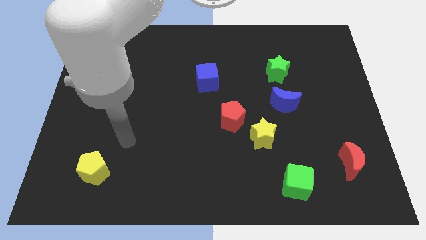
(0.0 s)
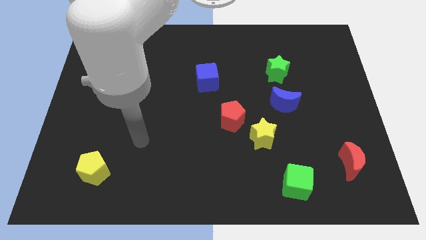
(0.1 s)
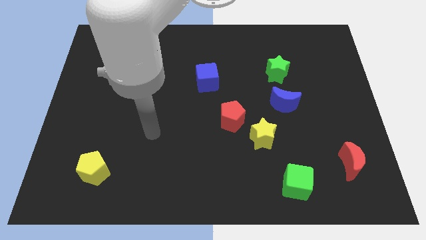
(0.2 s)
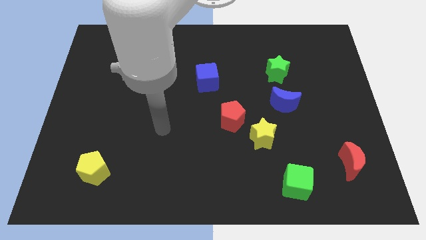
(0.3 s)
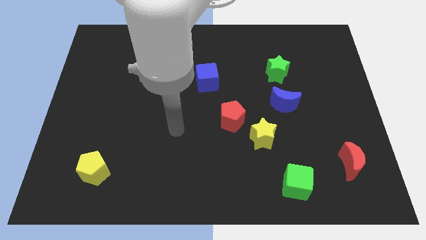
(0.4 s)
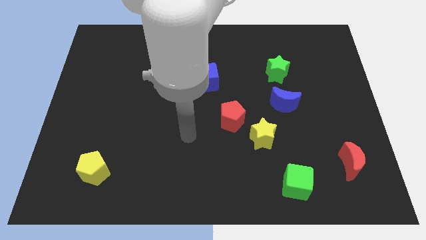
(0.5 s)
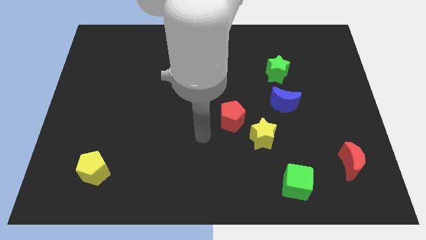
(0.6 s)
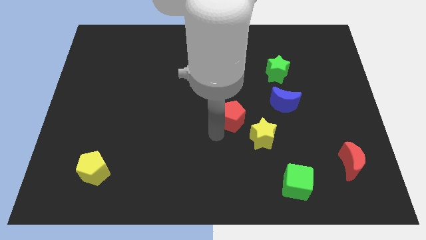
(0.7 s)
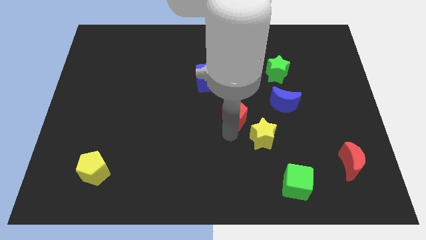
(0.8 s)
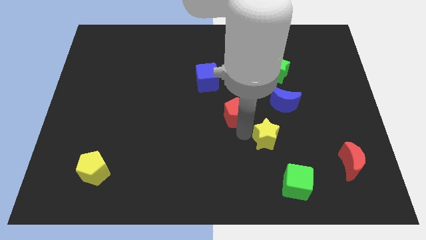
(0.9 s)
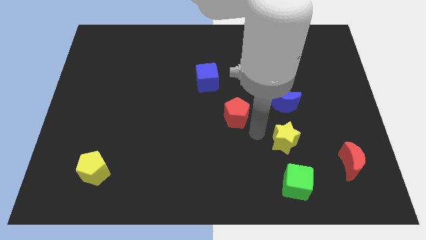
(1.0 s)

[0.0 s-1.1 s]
pull the red pentagon apart from the yellow star

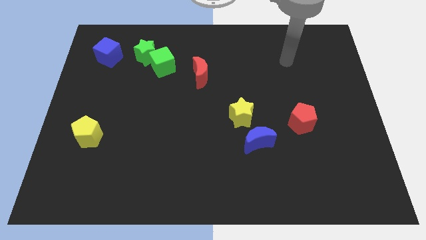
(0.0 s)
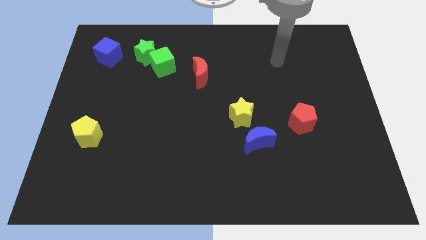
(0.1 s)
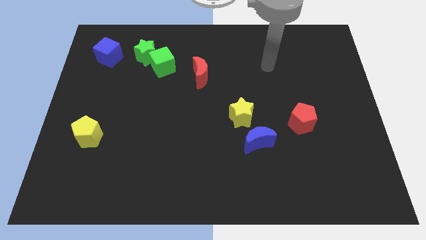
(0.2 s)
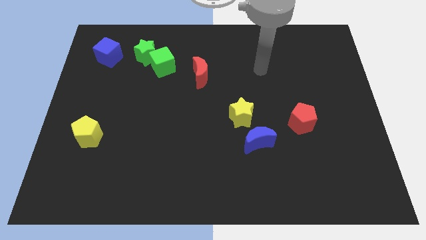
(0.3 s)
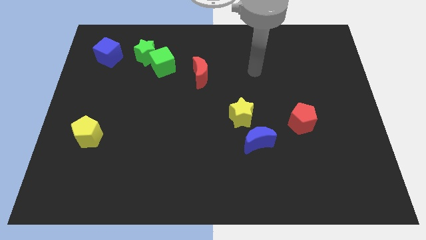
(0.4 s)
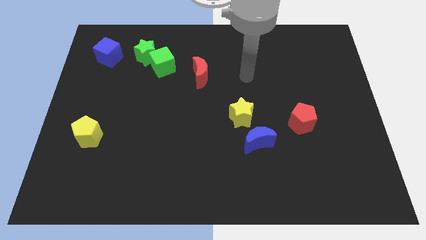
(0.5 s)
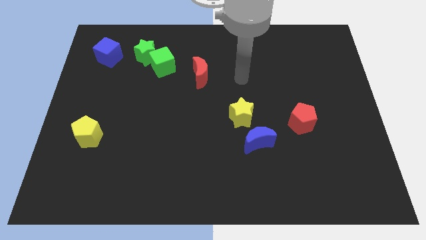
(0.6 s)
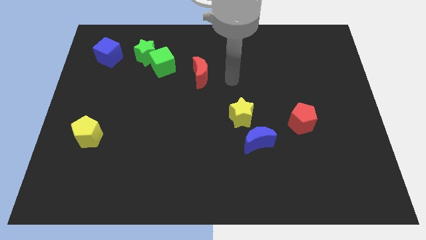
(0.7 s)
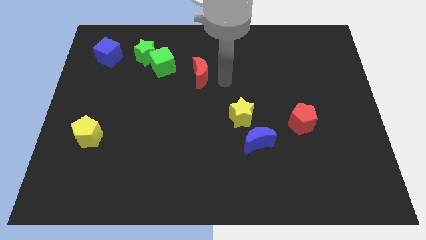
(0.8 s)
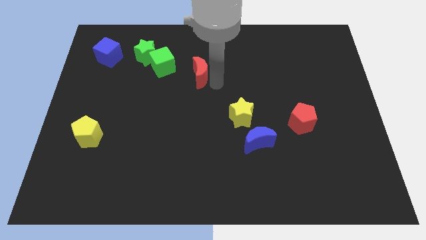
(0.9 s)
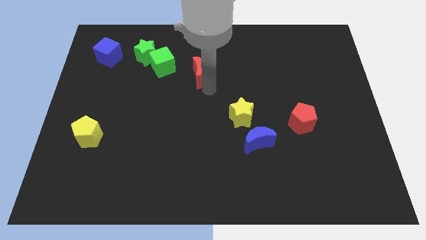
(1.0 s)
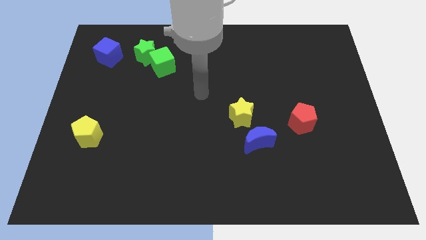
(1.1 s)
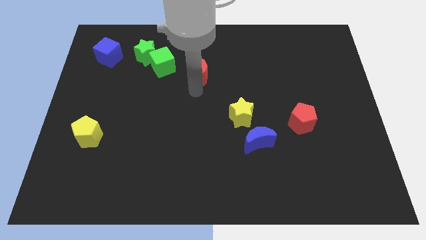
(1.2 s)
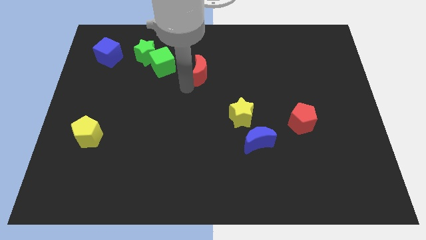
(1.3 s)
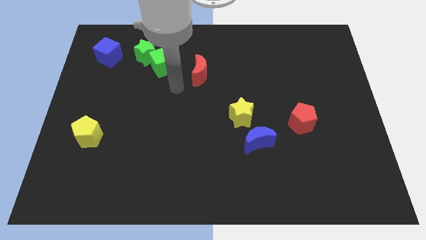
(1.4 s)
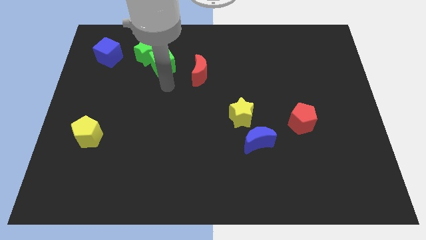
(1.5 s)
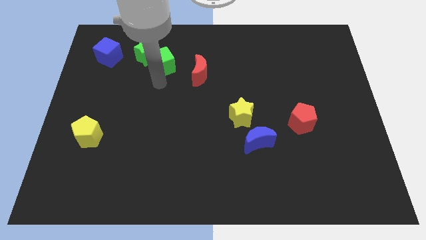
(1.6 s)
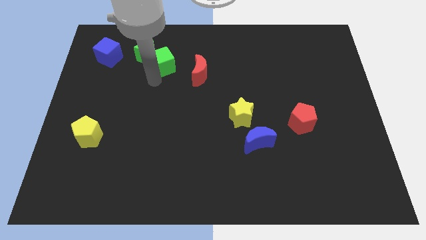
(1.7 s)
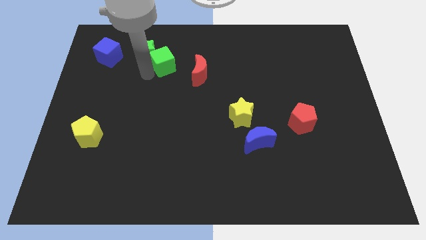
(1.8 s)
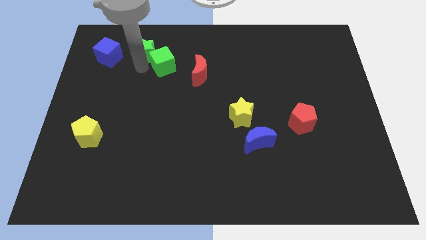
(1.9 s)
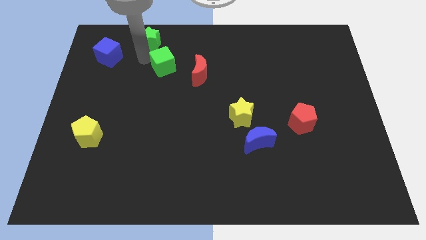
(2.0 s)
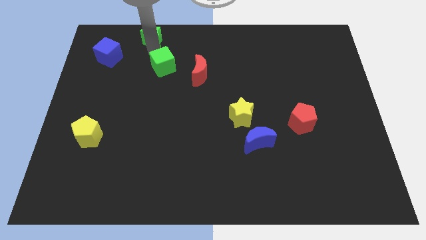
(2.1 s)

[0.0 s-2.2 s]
pull the green cube apart from the green star

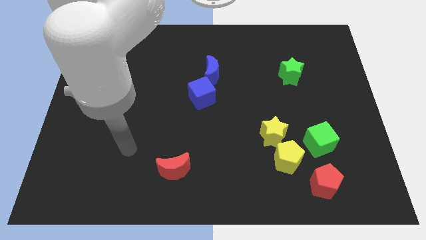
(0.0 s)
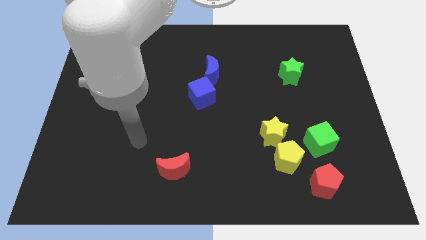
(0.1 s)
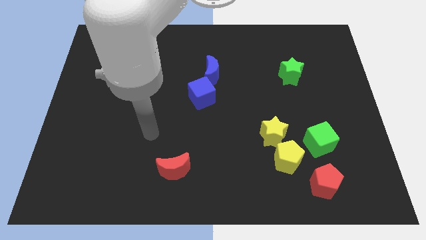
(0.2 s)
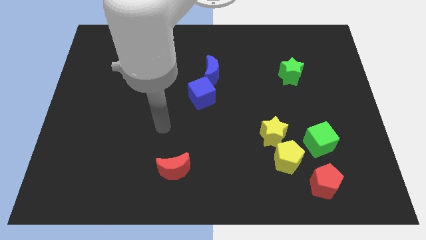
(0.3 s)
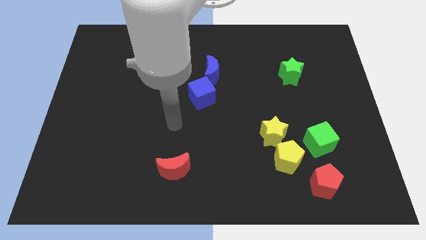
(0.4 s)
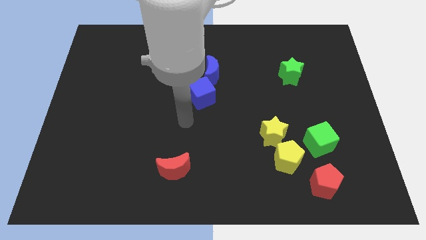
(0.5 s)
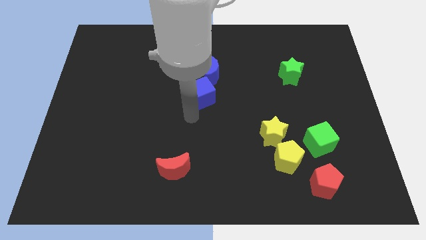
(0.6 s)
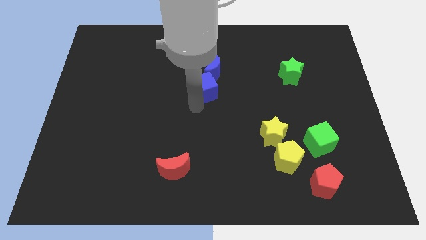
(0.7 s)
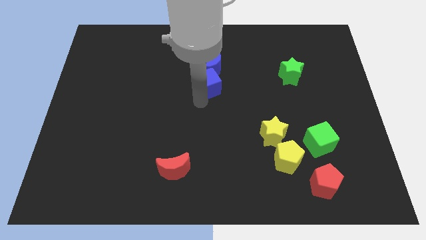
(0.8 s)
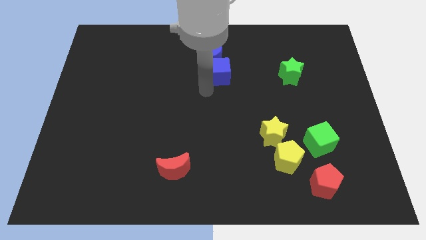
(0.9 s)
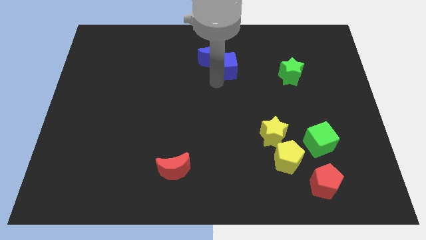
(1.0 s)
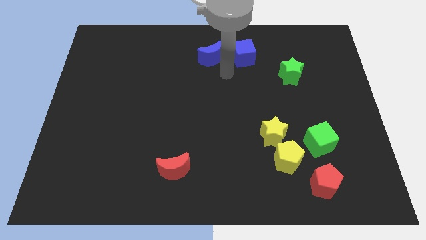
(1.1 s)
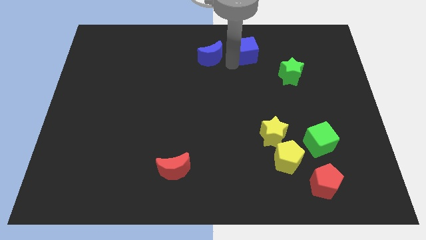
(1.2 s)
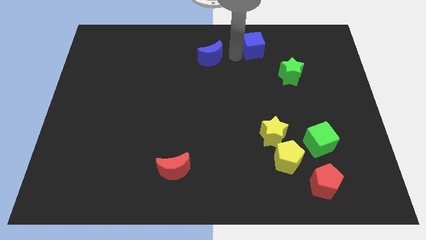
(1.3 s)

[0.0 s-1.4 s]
pull the blue moon apart from the blue cube

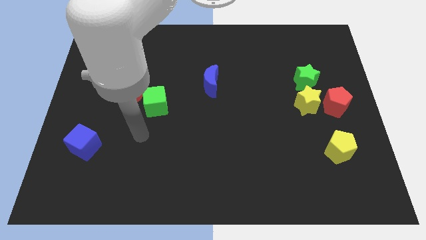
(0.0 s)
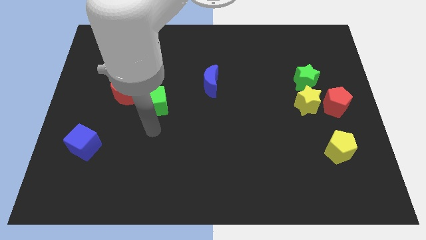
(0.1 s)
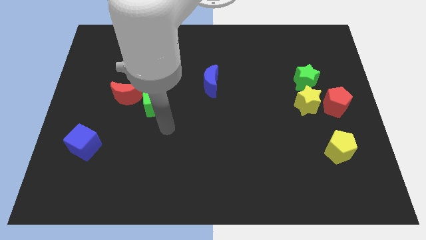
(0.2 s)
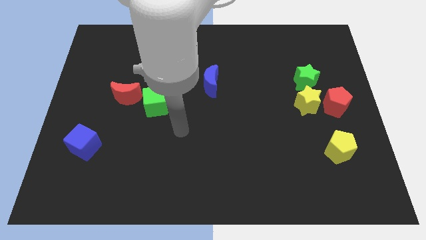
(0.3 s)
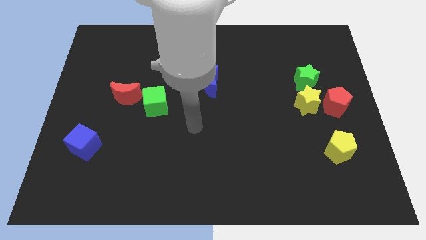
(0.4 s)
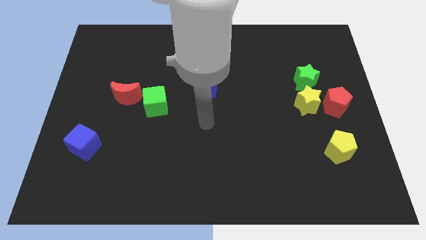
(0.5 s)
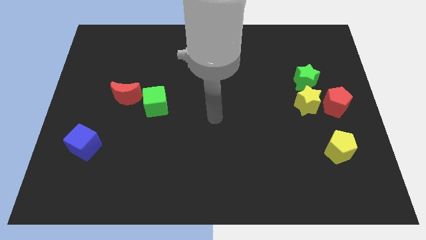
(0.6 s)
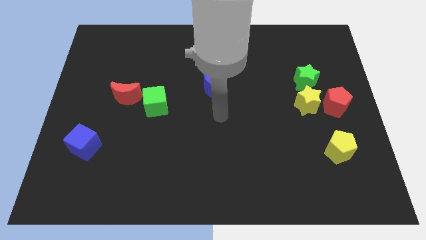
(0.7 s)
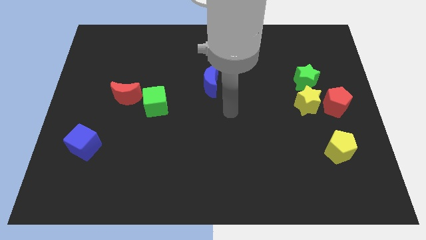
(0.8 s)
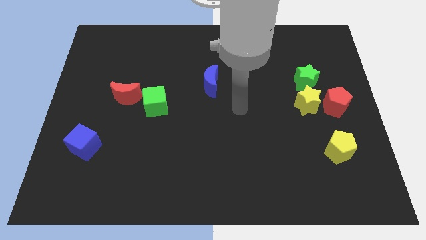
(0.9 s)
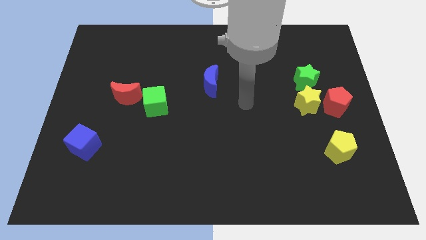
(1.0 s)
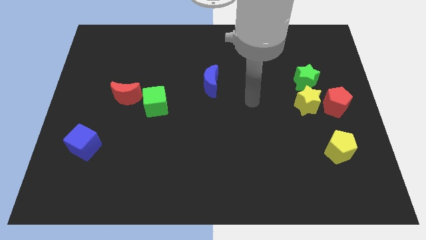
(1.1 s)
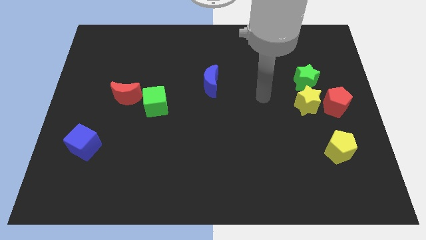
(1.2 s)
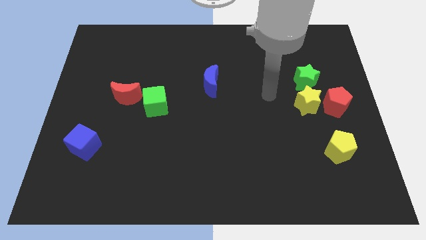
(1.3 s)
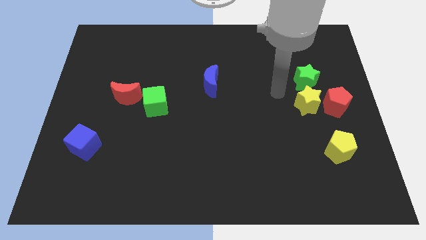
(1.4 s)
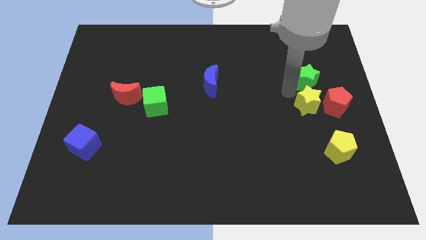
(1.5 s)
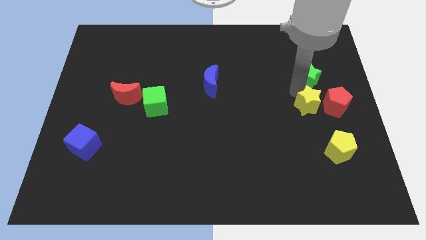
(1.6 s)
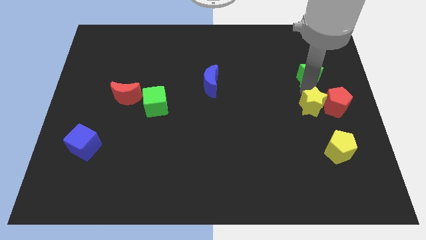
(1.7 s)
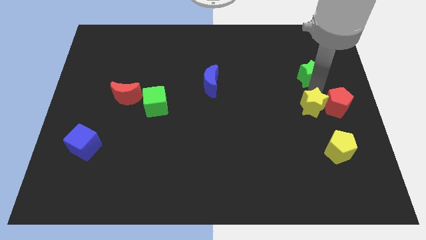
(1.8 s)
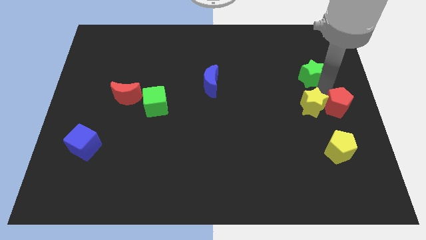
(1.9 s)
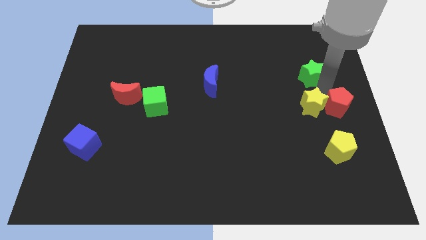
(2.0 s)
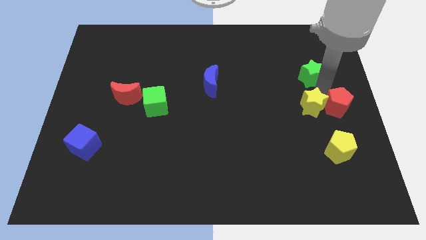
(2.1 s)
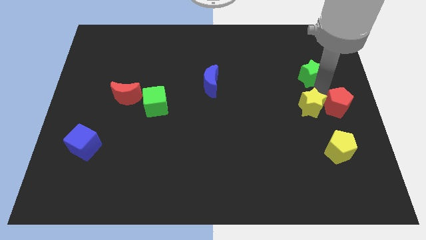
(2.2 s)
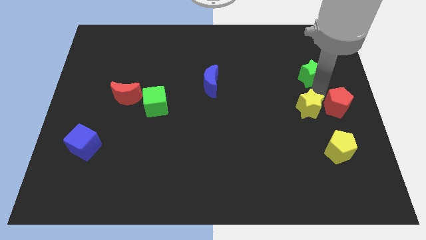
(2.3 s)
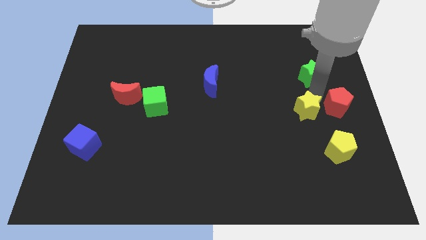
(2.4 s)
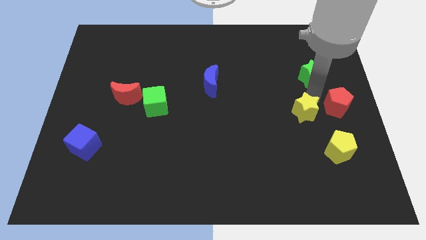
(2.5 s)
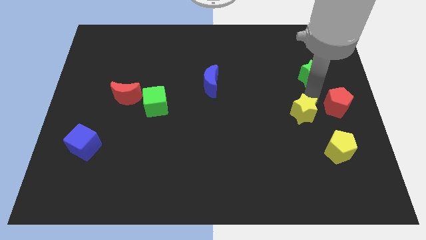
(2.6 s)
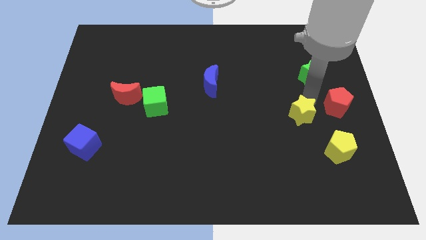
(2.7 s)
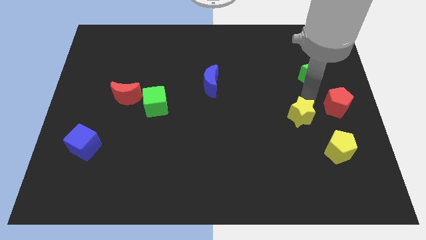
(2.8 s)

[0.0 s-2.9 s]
pull the yellow star apart from the red pentagon and green star

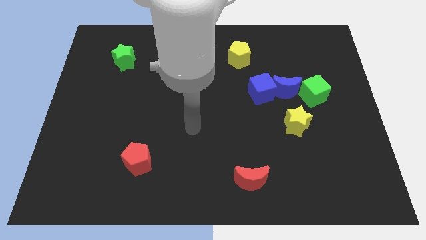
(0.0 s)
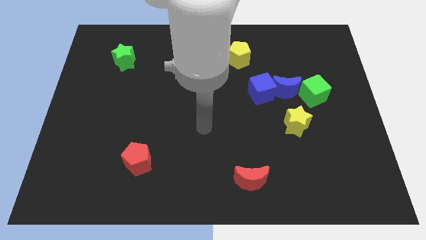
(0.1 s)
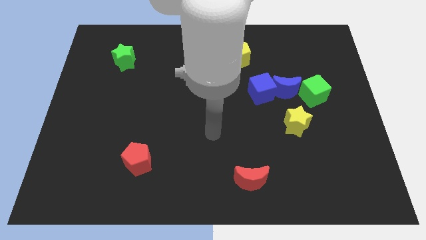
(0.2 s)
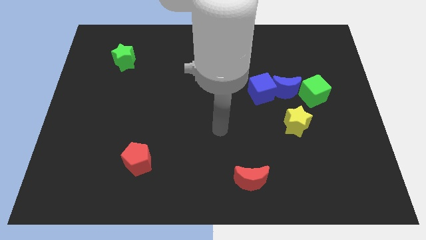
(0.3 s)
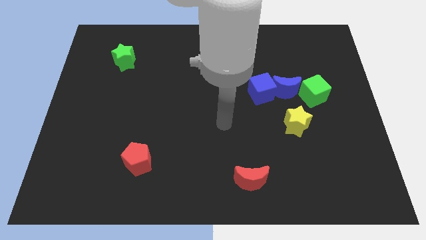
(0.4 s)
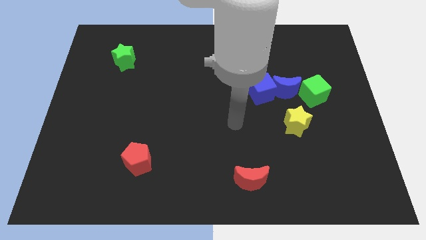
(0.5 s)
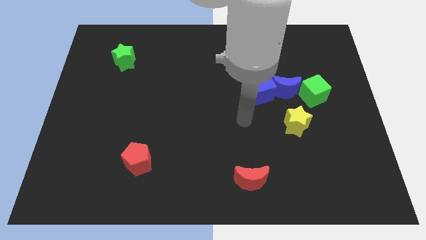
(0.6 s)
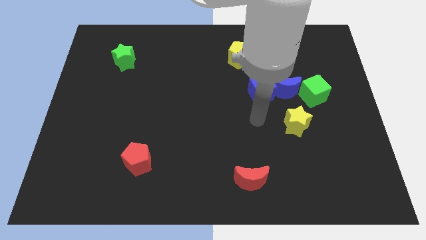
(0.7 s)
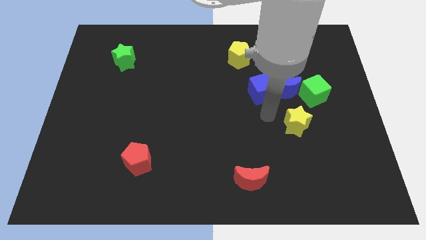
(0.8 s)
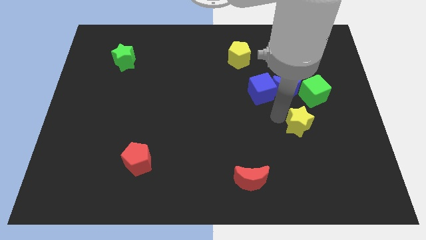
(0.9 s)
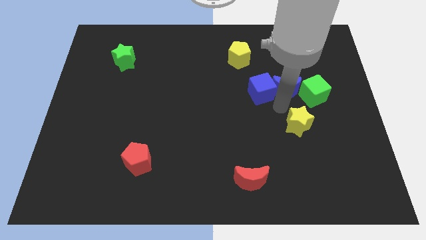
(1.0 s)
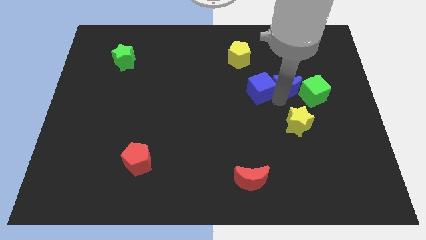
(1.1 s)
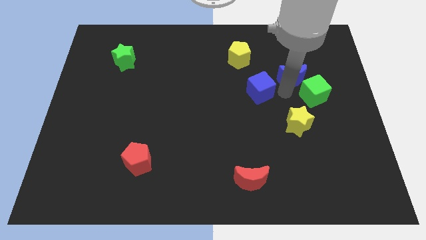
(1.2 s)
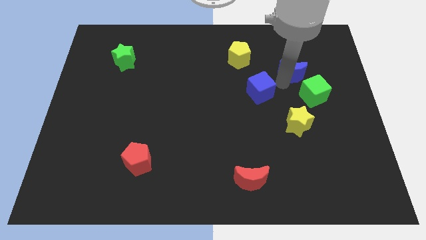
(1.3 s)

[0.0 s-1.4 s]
pull the blue cube apart from the blue moon

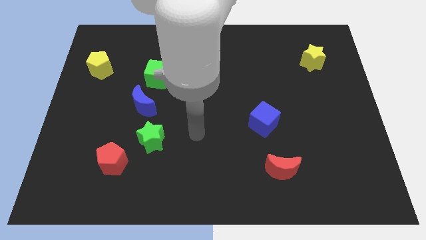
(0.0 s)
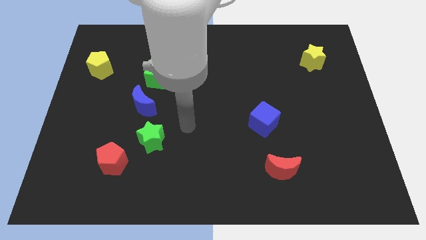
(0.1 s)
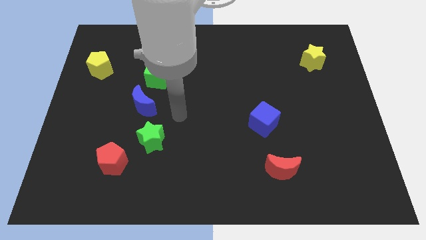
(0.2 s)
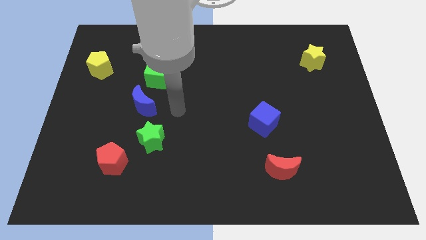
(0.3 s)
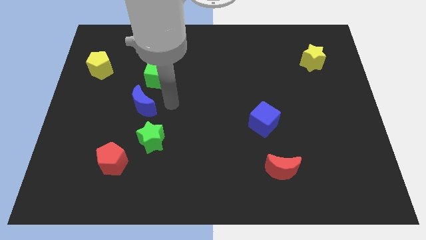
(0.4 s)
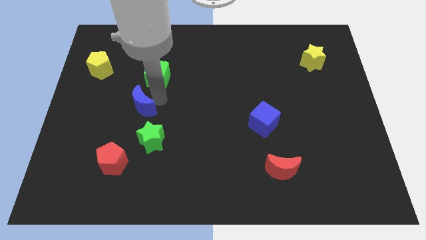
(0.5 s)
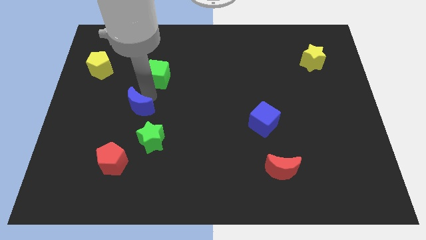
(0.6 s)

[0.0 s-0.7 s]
move the green cube away from the blue moon
